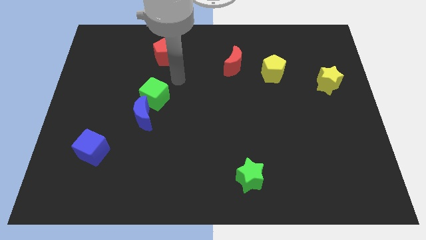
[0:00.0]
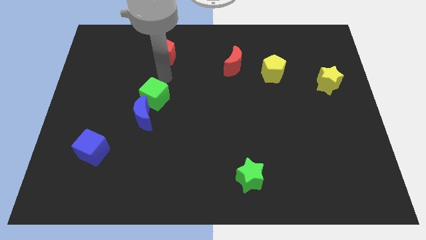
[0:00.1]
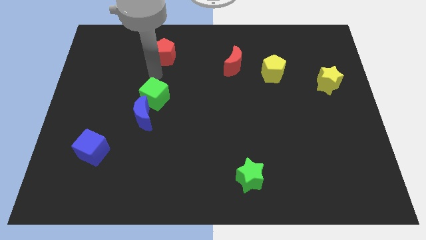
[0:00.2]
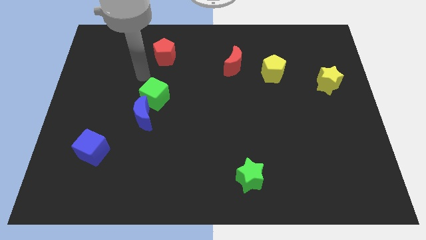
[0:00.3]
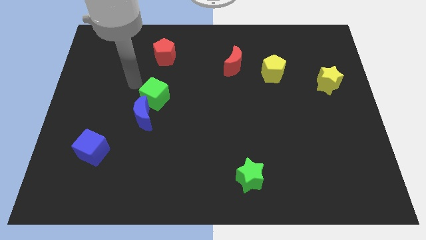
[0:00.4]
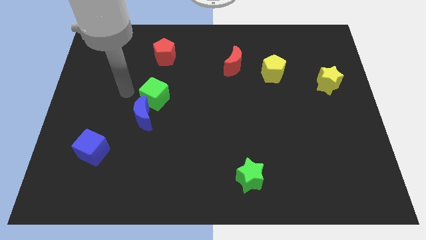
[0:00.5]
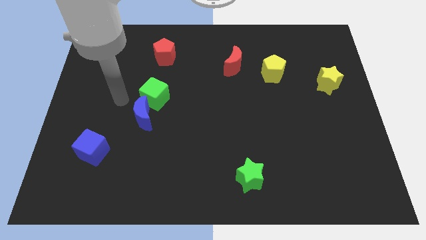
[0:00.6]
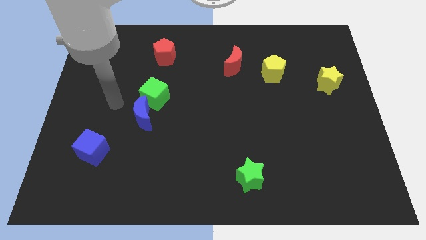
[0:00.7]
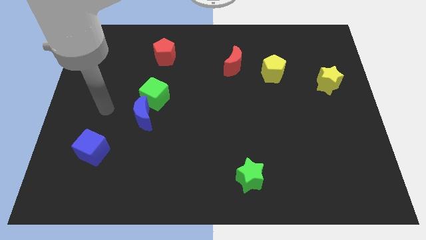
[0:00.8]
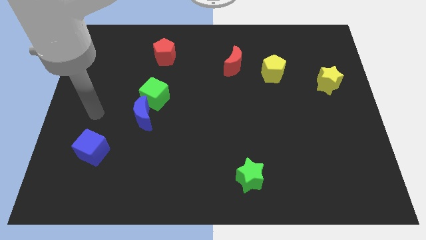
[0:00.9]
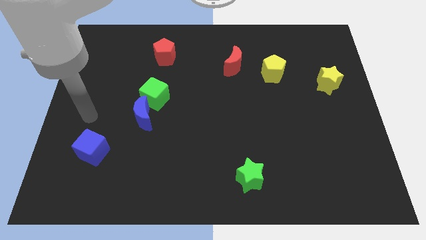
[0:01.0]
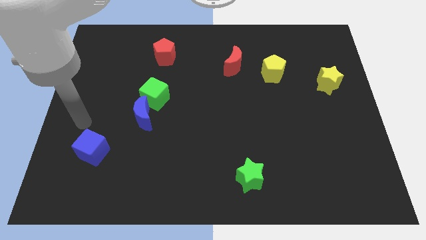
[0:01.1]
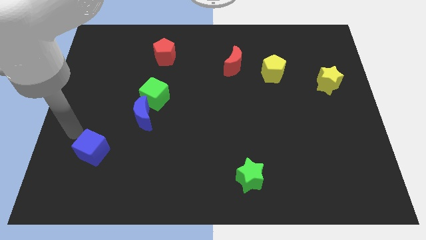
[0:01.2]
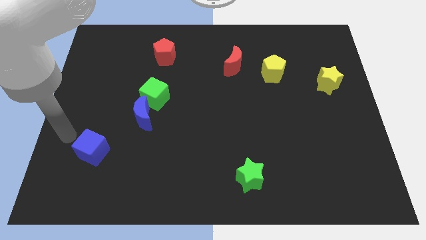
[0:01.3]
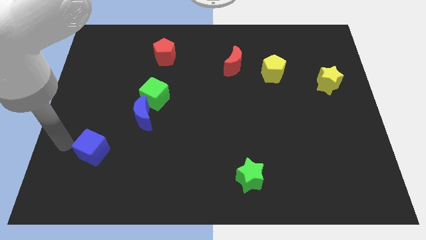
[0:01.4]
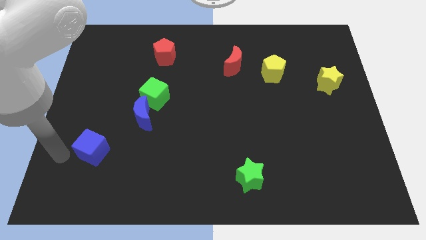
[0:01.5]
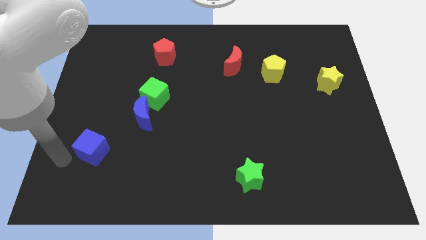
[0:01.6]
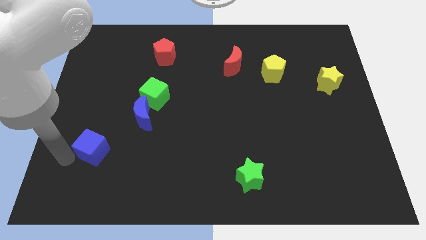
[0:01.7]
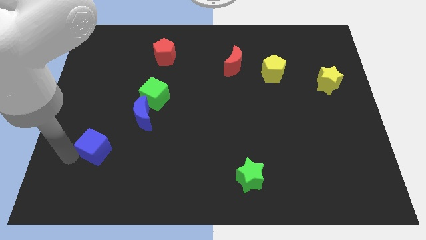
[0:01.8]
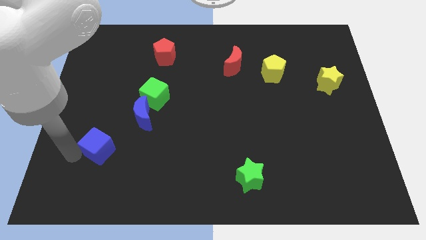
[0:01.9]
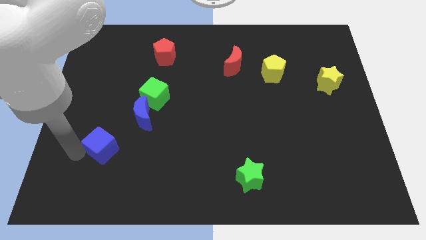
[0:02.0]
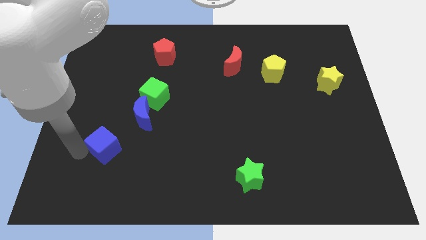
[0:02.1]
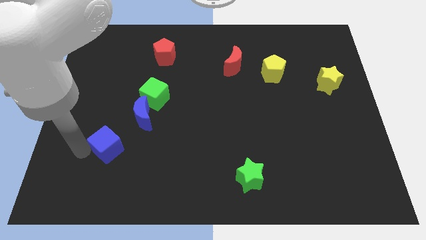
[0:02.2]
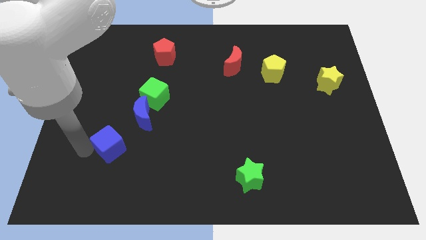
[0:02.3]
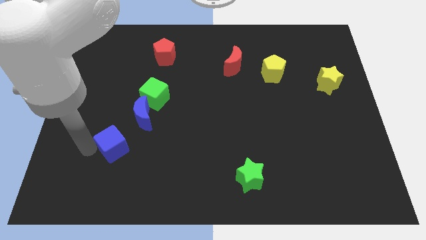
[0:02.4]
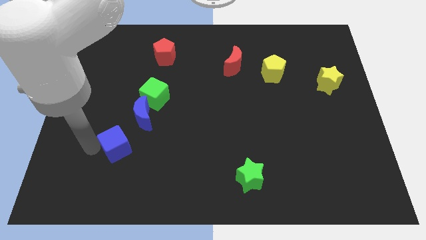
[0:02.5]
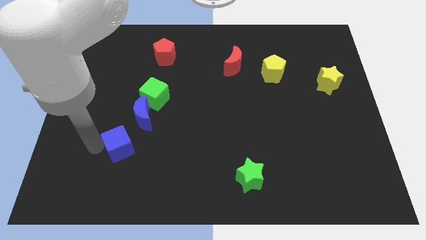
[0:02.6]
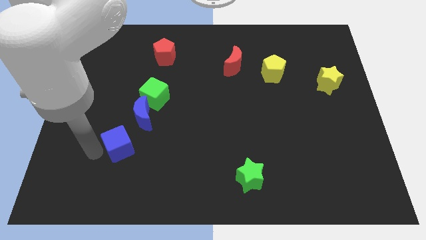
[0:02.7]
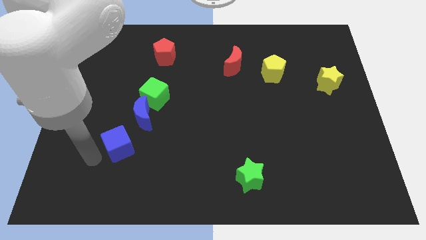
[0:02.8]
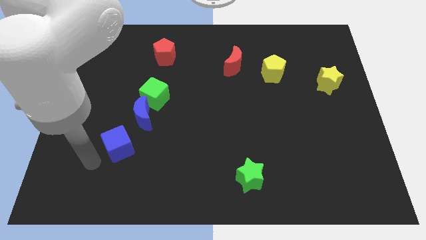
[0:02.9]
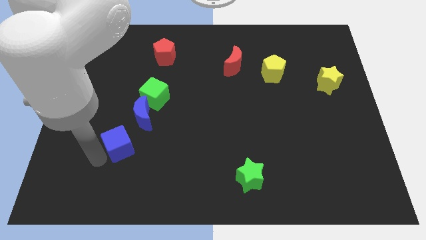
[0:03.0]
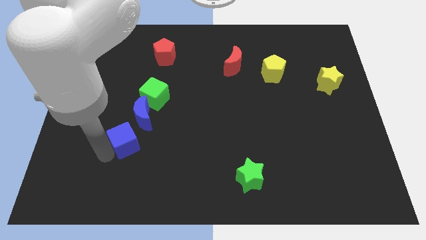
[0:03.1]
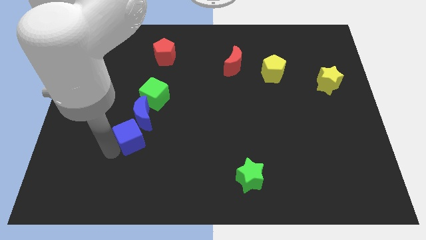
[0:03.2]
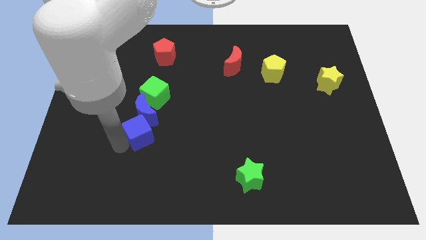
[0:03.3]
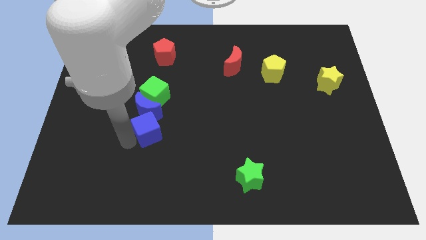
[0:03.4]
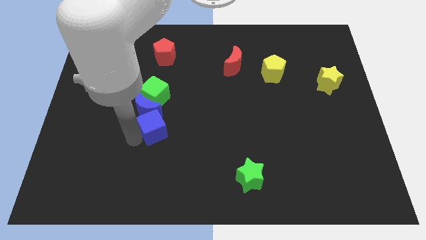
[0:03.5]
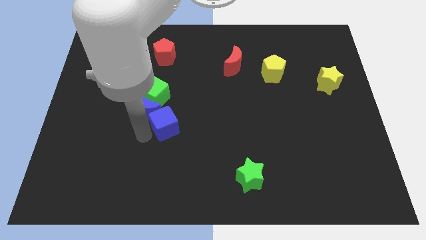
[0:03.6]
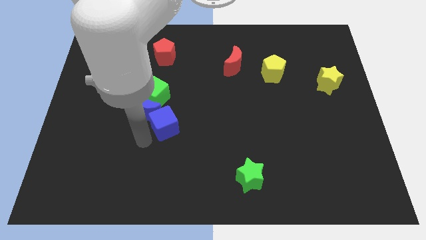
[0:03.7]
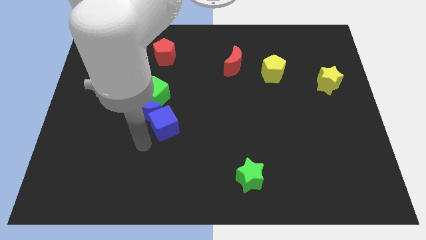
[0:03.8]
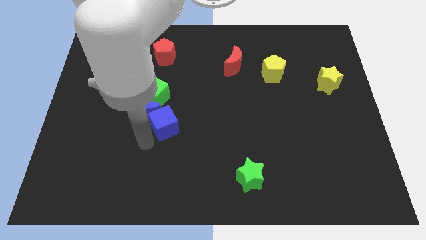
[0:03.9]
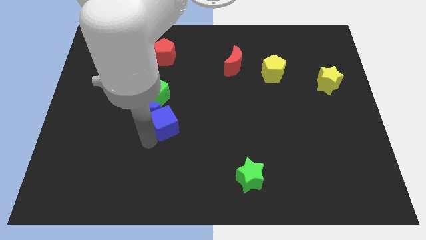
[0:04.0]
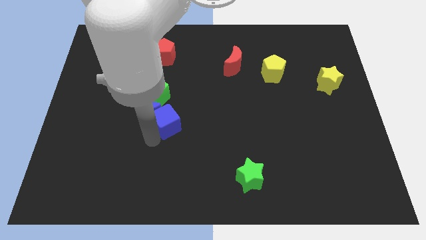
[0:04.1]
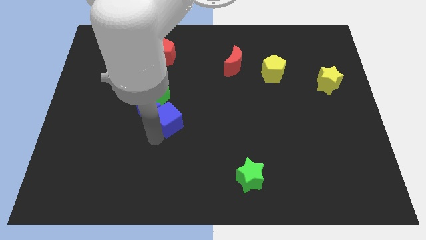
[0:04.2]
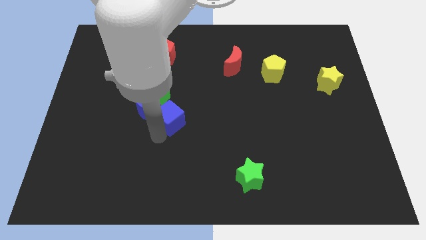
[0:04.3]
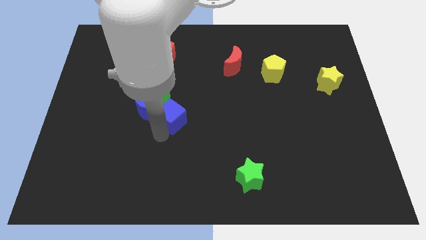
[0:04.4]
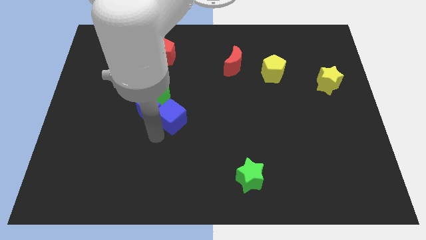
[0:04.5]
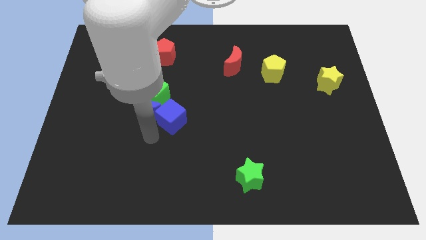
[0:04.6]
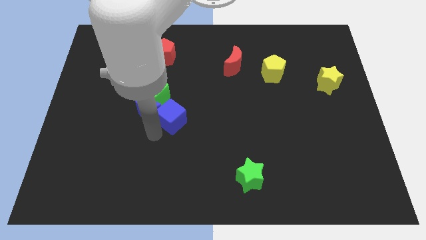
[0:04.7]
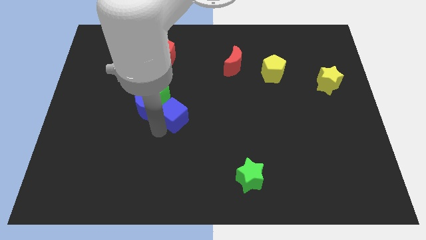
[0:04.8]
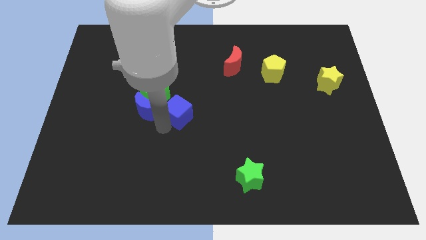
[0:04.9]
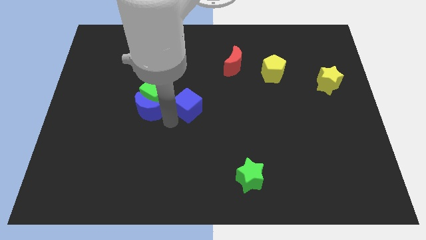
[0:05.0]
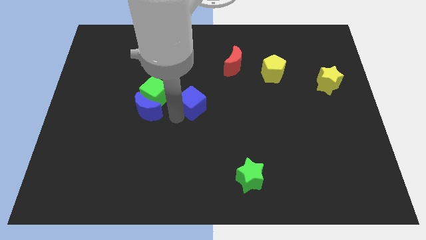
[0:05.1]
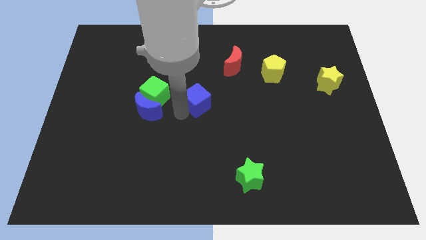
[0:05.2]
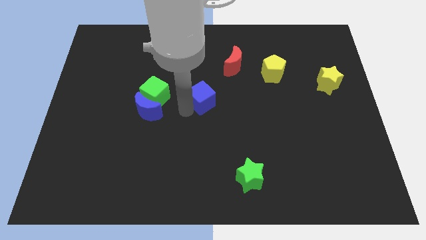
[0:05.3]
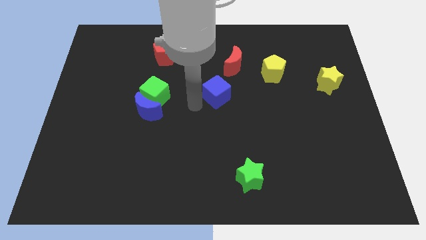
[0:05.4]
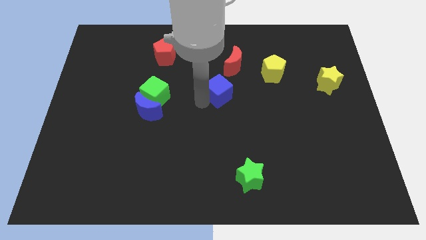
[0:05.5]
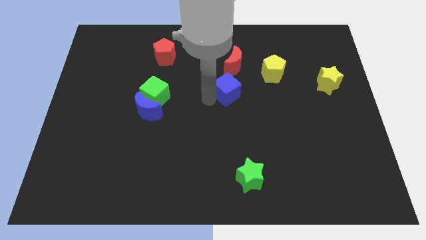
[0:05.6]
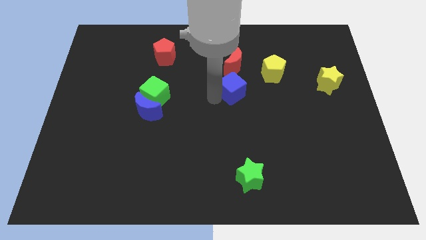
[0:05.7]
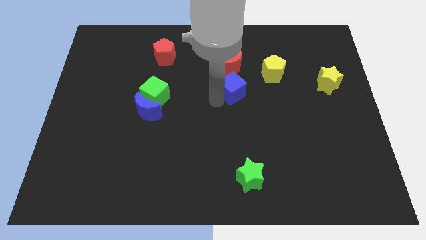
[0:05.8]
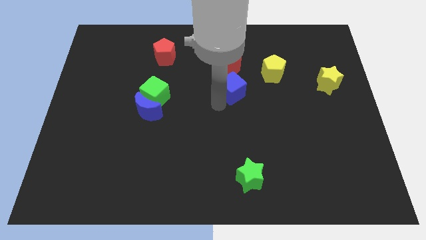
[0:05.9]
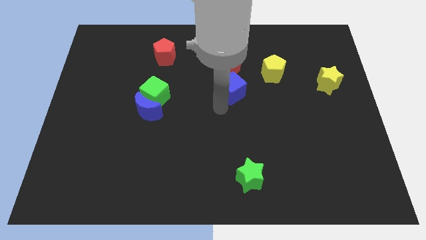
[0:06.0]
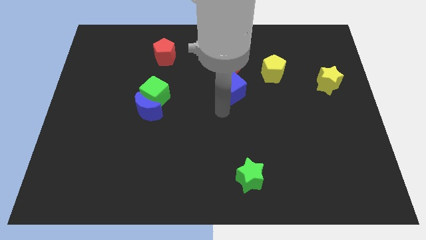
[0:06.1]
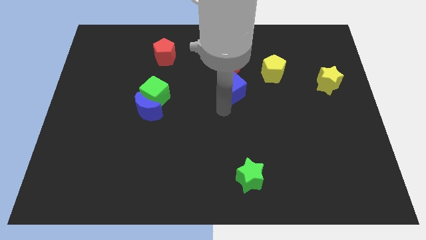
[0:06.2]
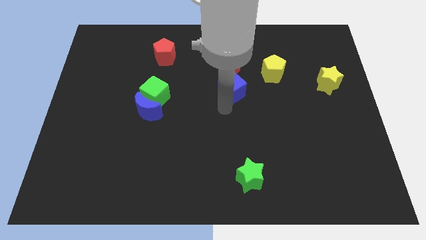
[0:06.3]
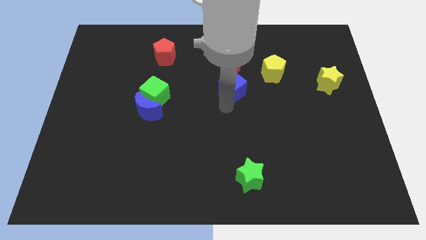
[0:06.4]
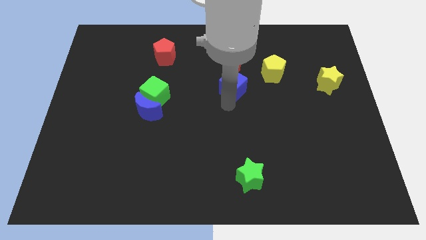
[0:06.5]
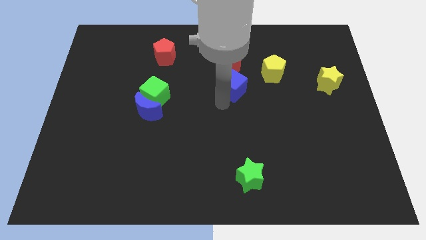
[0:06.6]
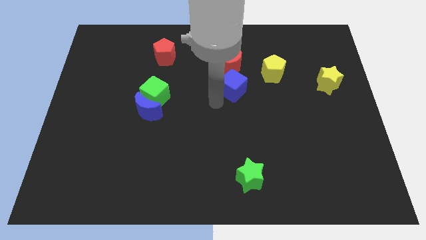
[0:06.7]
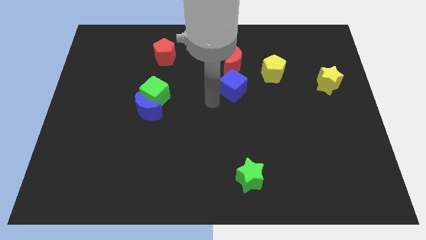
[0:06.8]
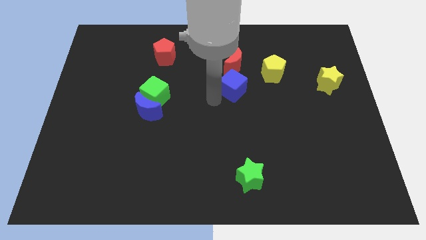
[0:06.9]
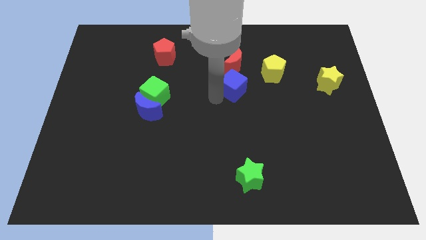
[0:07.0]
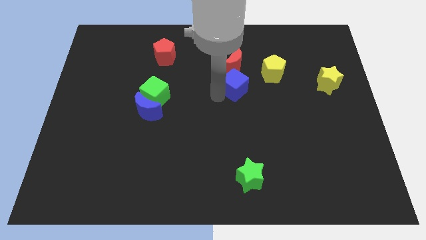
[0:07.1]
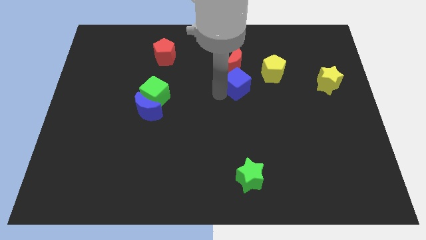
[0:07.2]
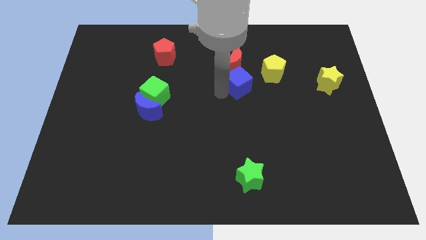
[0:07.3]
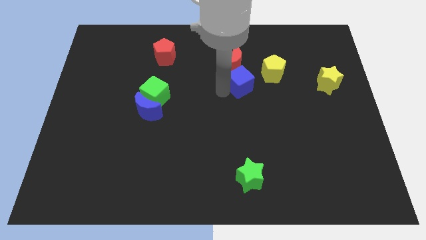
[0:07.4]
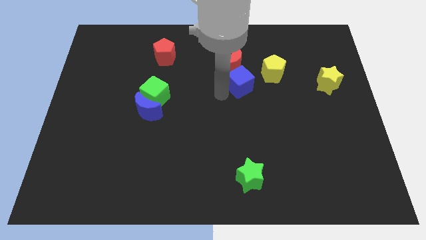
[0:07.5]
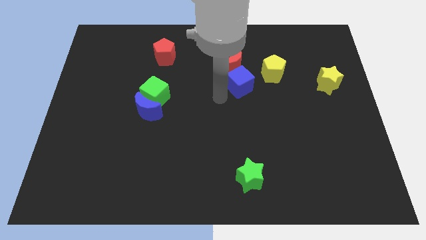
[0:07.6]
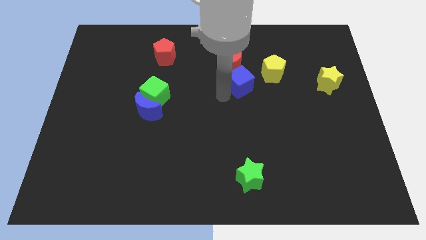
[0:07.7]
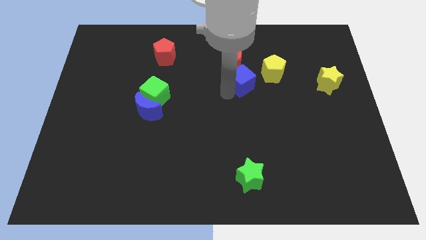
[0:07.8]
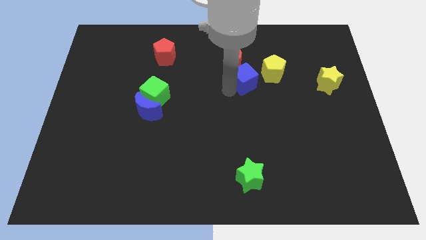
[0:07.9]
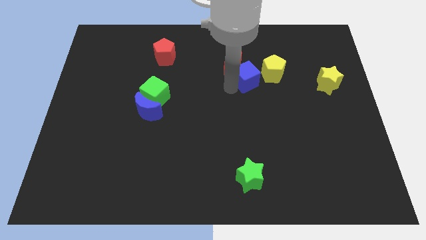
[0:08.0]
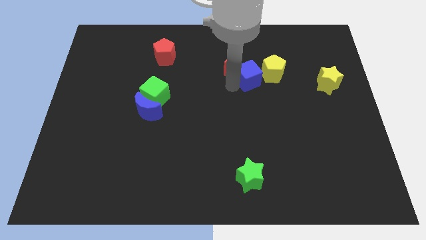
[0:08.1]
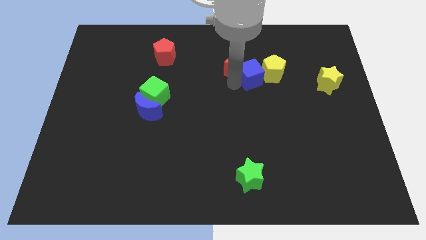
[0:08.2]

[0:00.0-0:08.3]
put the blue cube next to the yellow pentagon

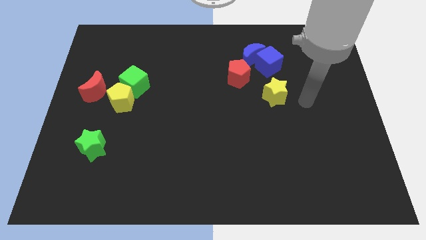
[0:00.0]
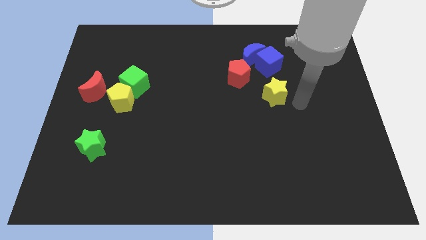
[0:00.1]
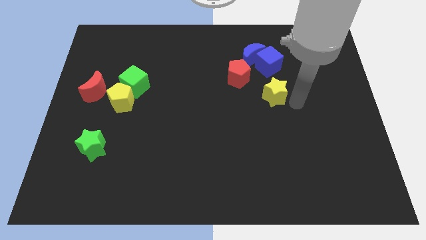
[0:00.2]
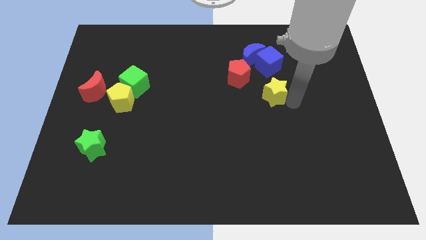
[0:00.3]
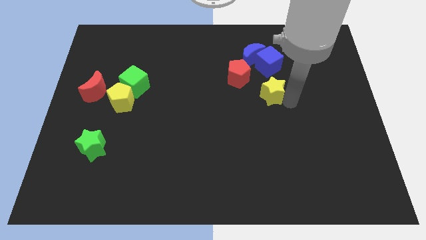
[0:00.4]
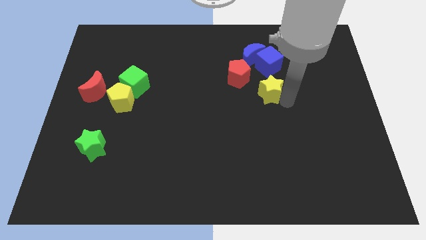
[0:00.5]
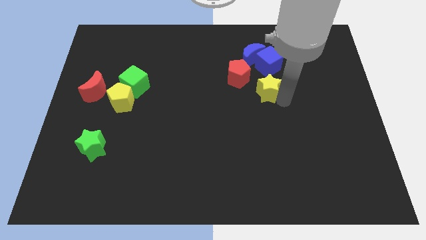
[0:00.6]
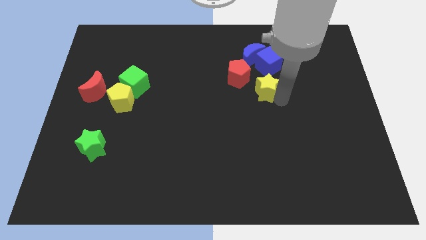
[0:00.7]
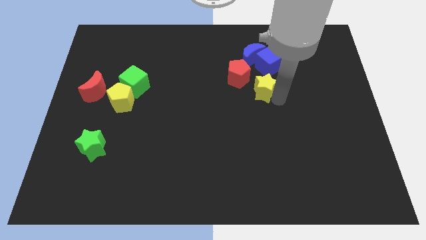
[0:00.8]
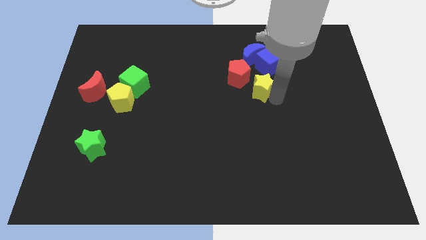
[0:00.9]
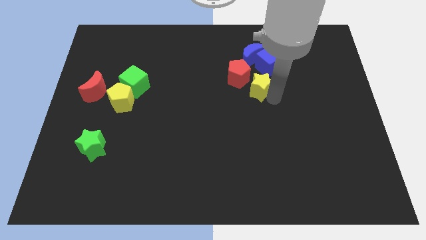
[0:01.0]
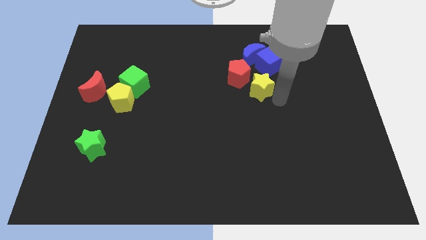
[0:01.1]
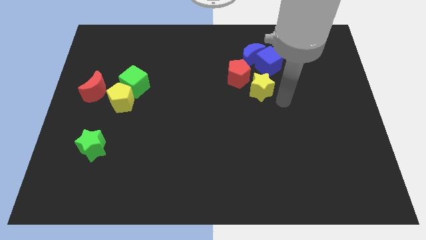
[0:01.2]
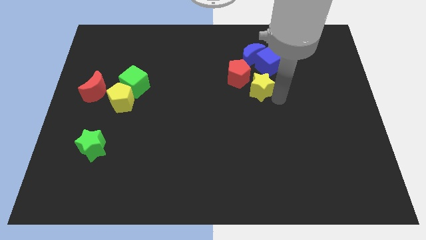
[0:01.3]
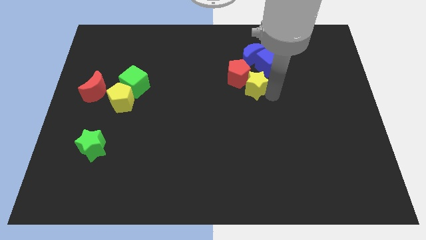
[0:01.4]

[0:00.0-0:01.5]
push the yellow star towards the red pentagon
